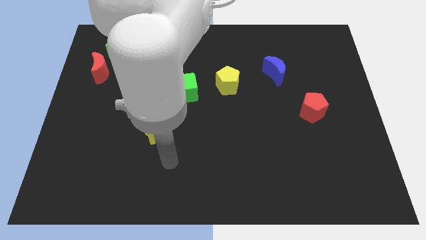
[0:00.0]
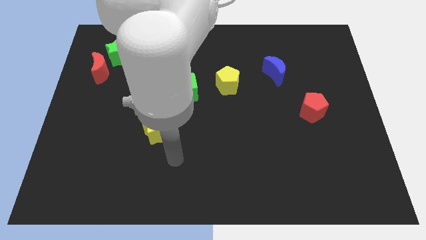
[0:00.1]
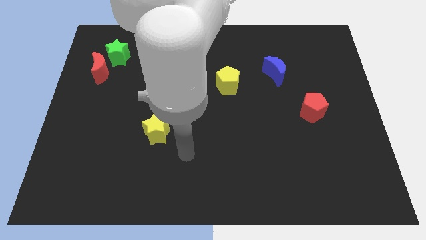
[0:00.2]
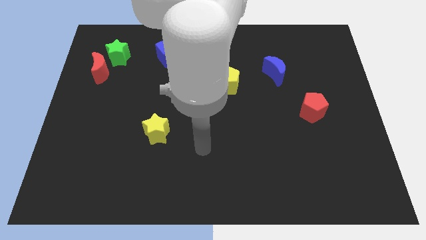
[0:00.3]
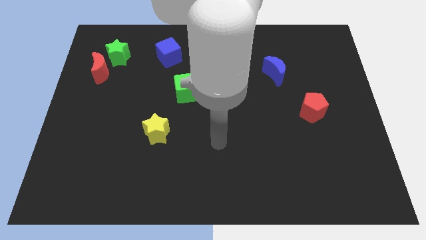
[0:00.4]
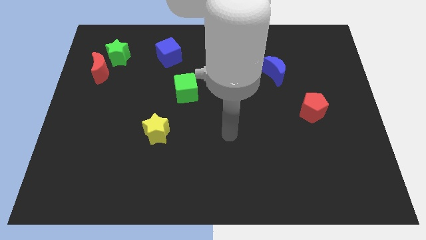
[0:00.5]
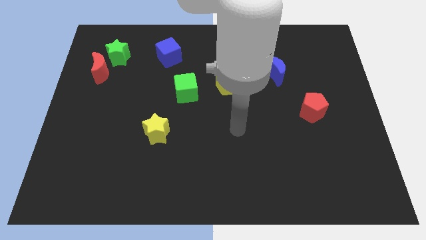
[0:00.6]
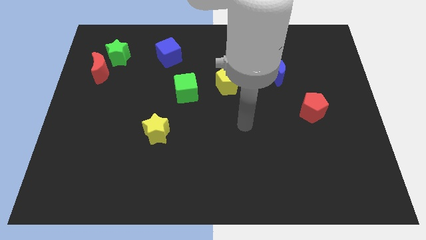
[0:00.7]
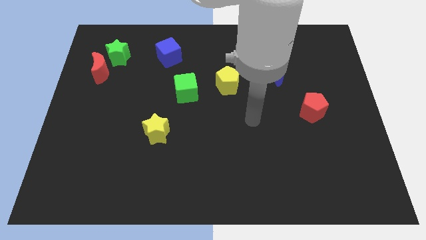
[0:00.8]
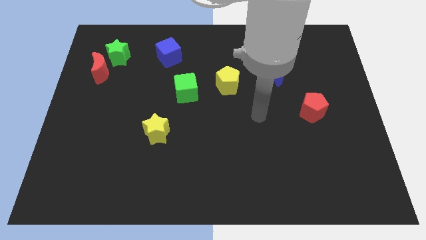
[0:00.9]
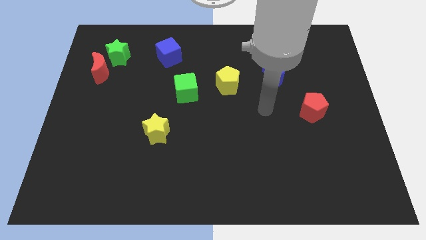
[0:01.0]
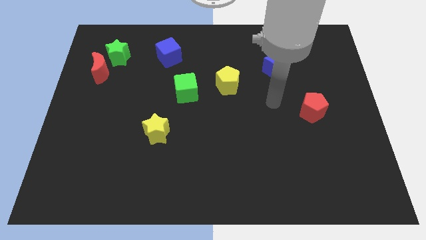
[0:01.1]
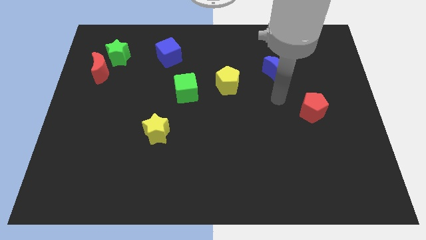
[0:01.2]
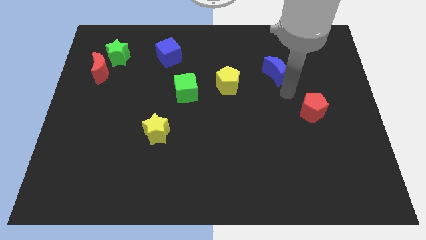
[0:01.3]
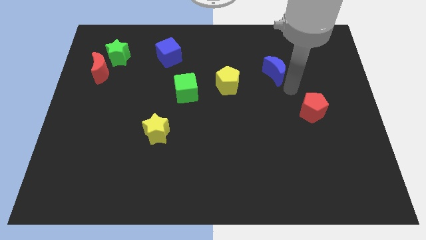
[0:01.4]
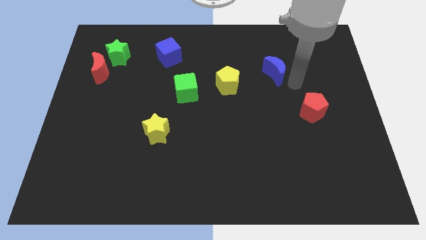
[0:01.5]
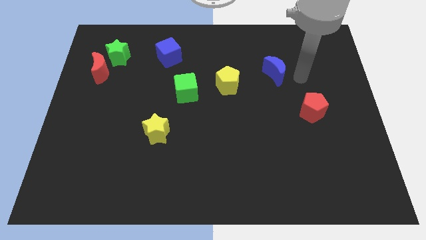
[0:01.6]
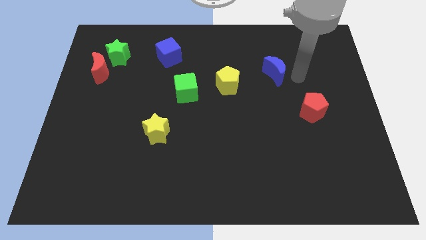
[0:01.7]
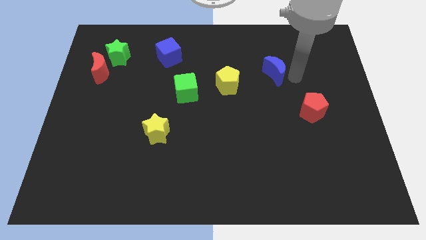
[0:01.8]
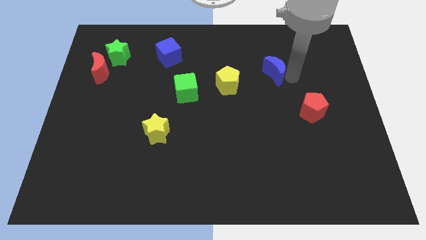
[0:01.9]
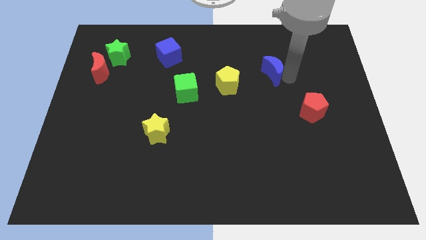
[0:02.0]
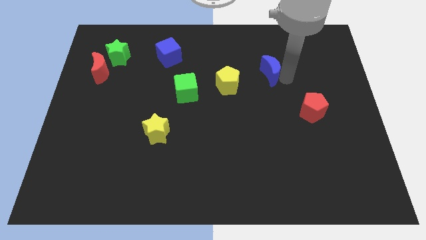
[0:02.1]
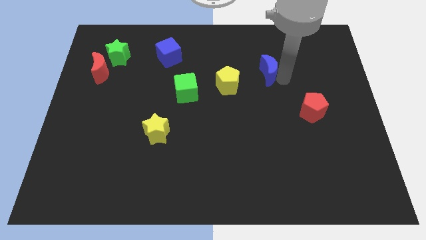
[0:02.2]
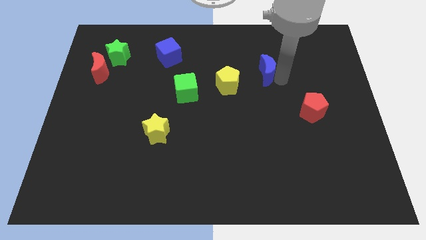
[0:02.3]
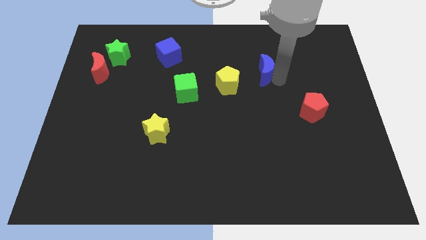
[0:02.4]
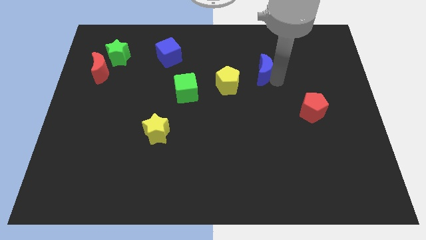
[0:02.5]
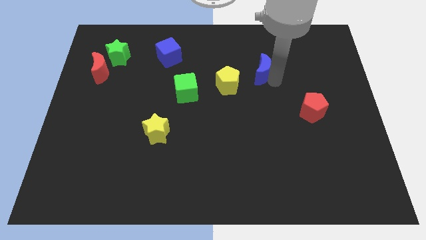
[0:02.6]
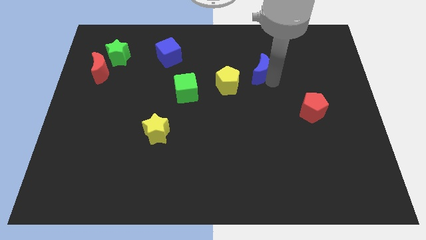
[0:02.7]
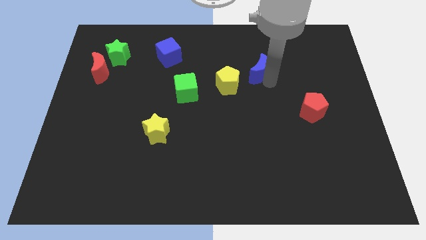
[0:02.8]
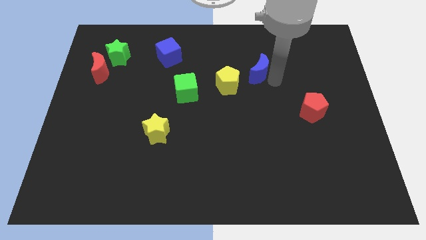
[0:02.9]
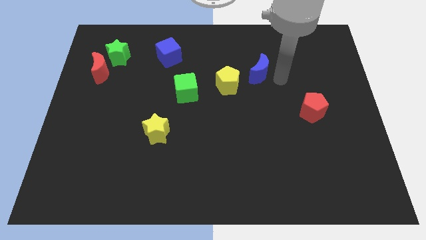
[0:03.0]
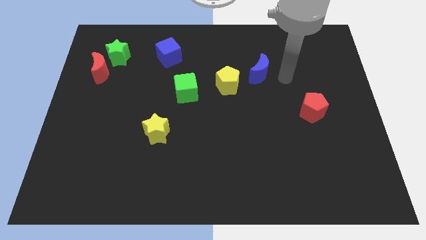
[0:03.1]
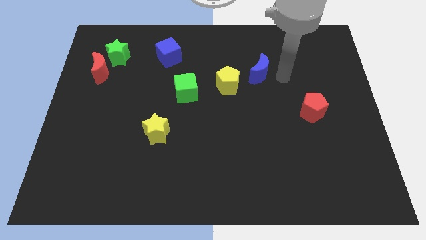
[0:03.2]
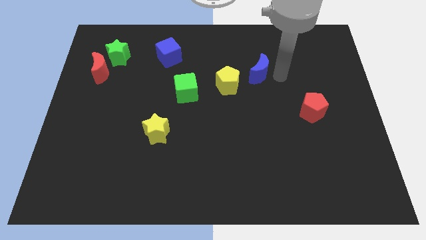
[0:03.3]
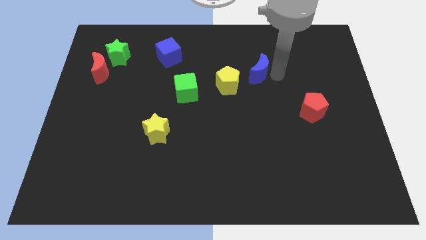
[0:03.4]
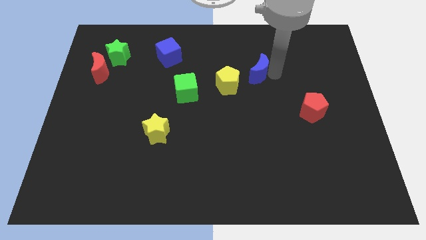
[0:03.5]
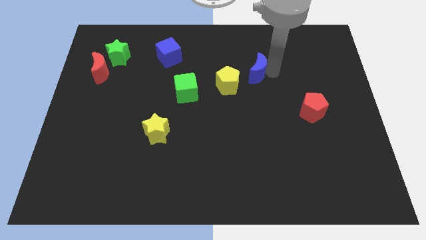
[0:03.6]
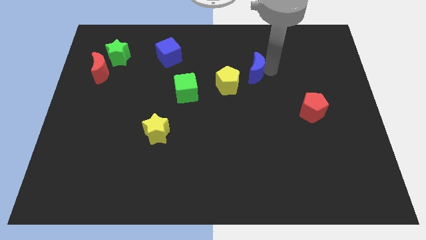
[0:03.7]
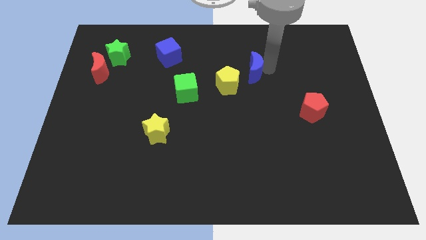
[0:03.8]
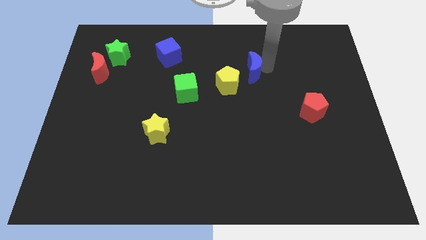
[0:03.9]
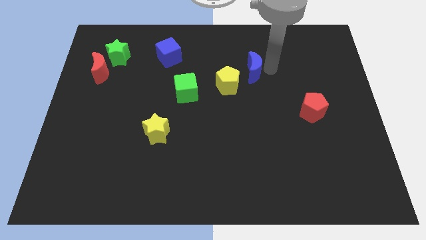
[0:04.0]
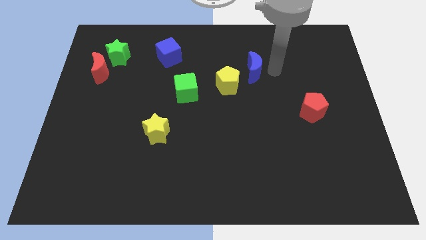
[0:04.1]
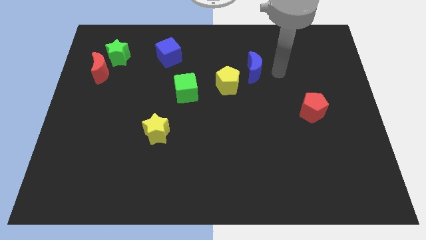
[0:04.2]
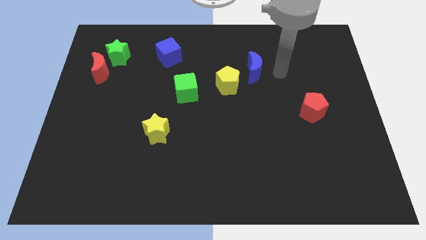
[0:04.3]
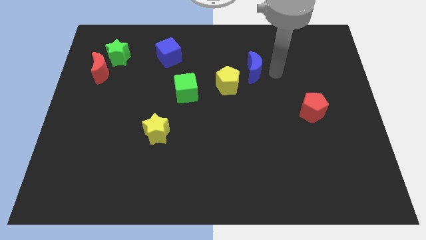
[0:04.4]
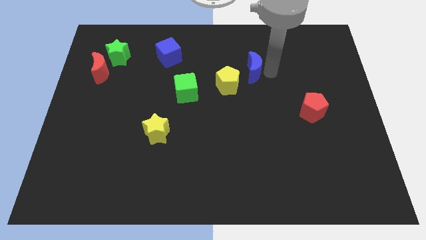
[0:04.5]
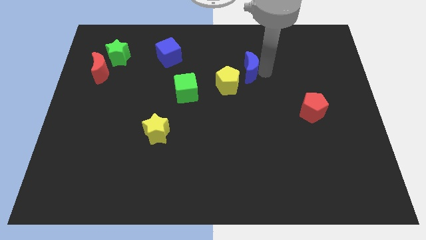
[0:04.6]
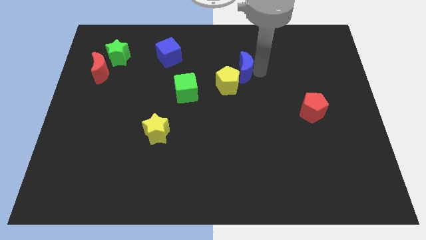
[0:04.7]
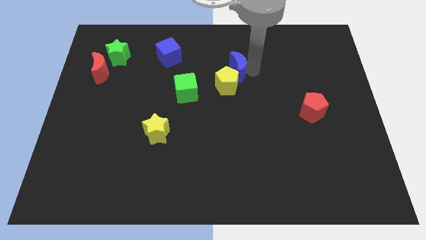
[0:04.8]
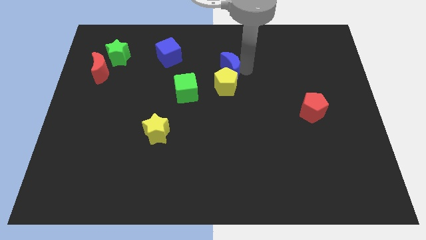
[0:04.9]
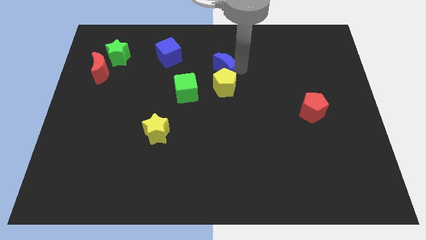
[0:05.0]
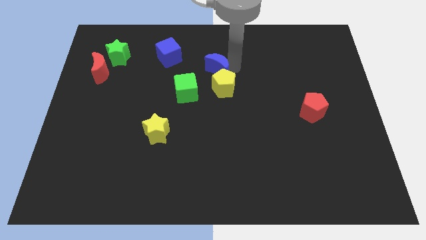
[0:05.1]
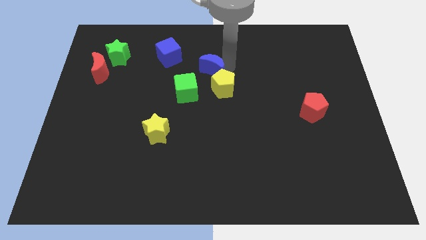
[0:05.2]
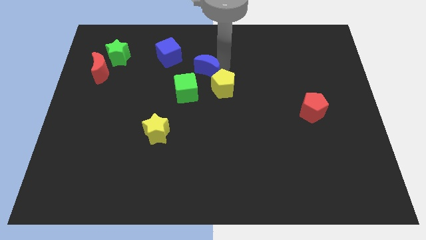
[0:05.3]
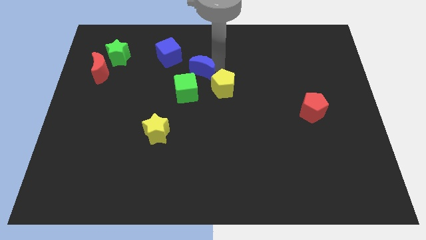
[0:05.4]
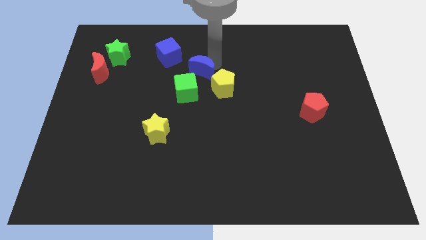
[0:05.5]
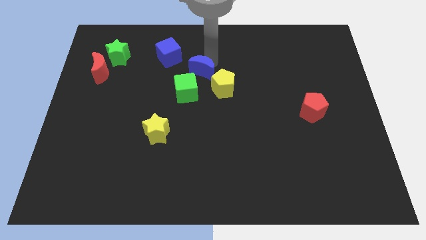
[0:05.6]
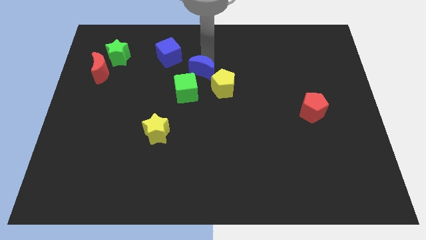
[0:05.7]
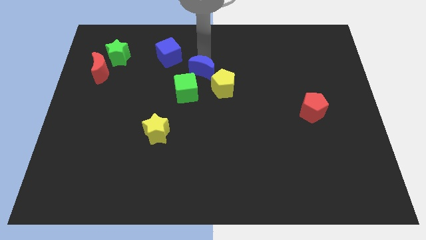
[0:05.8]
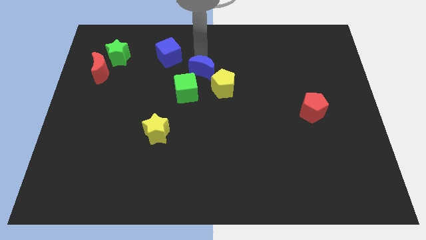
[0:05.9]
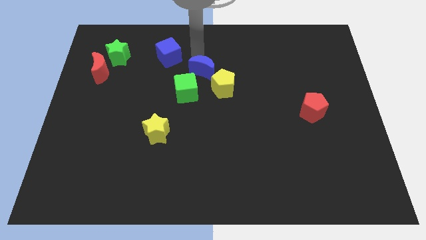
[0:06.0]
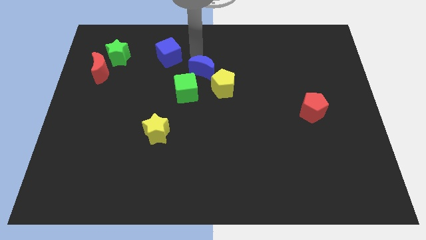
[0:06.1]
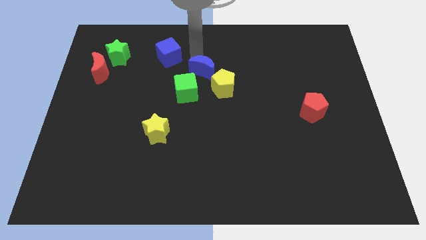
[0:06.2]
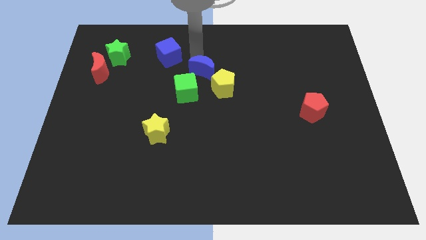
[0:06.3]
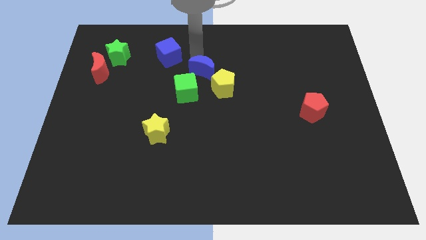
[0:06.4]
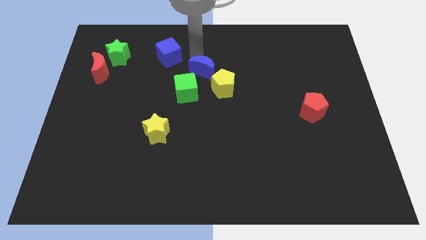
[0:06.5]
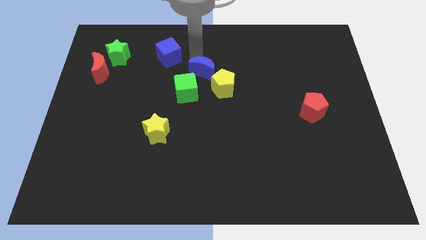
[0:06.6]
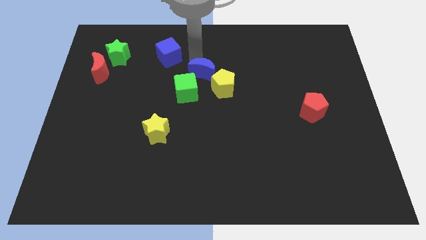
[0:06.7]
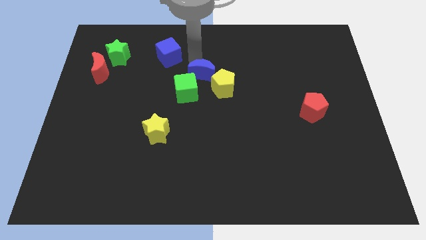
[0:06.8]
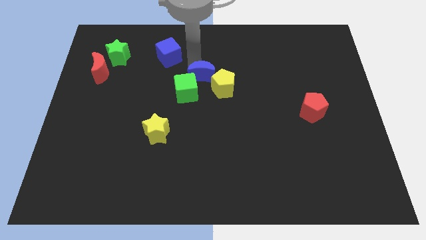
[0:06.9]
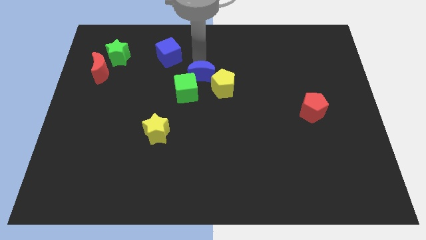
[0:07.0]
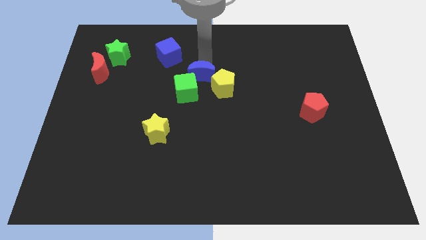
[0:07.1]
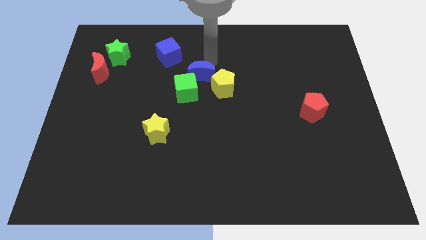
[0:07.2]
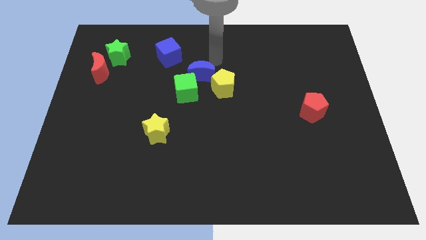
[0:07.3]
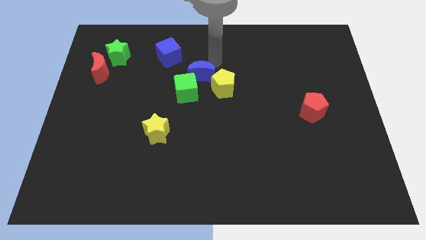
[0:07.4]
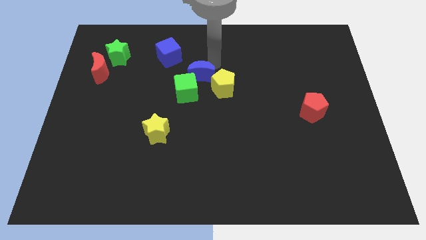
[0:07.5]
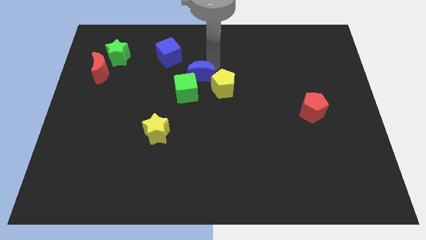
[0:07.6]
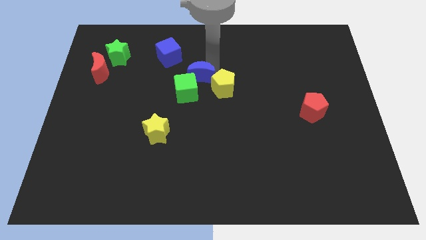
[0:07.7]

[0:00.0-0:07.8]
slide the blue moon towards the green cube

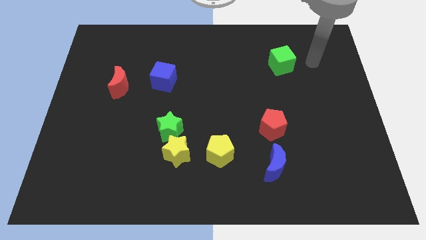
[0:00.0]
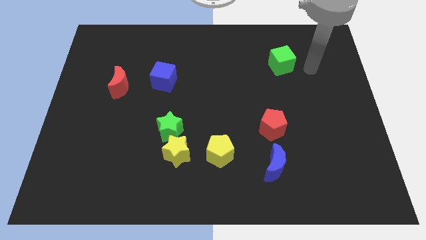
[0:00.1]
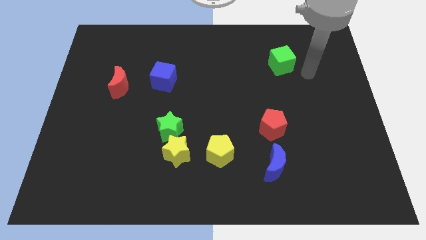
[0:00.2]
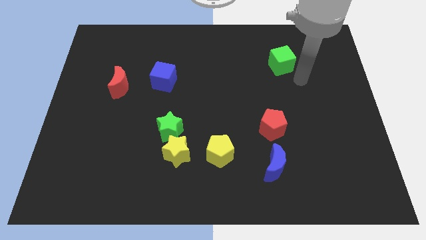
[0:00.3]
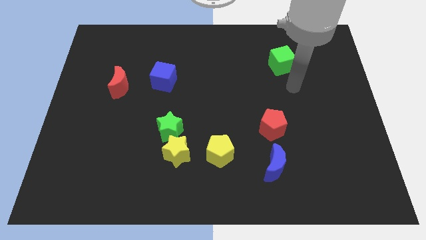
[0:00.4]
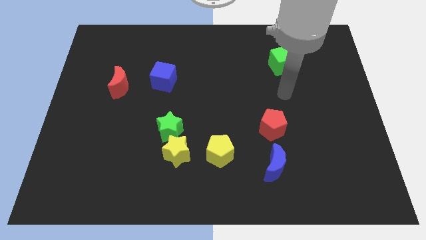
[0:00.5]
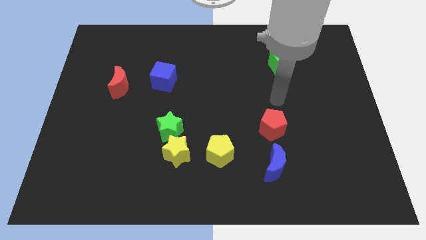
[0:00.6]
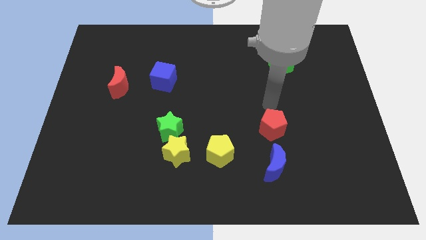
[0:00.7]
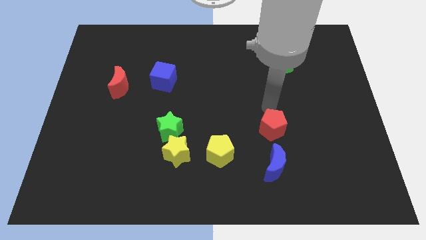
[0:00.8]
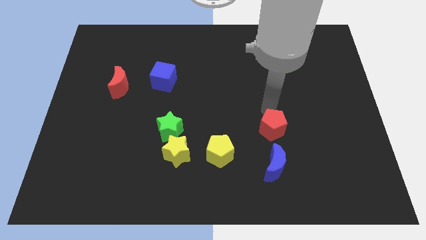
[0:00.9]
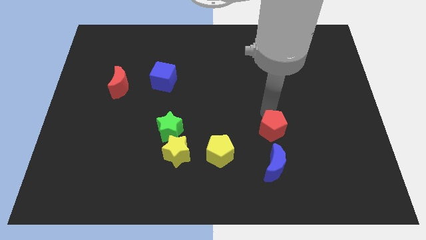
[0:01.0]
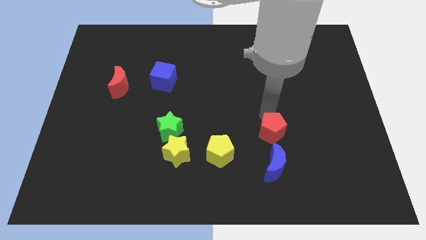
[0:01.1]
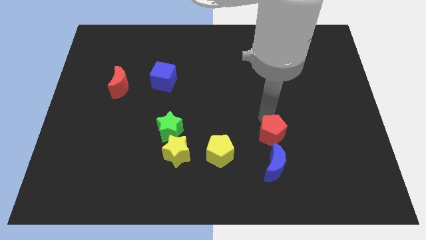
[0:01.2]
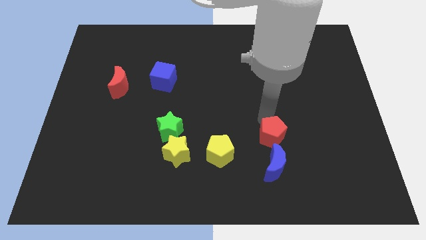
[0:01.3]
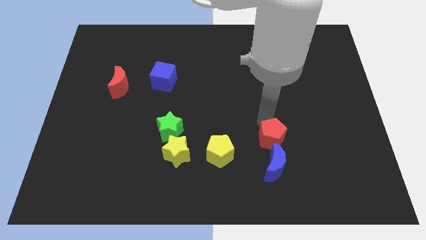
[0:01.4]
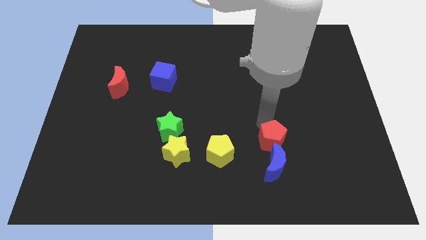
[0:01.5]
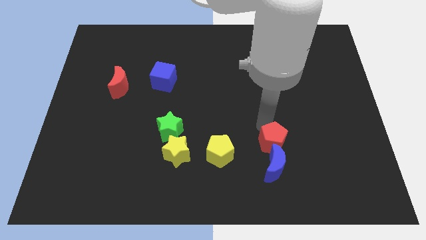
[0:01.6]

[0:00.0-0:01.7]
slide the red pentagon close to the blue moon
